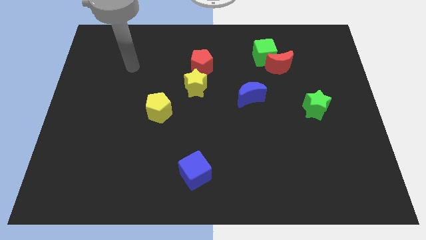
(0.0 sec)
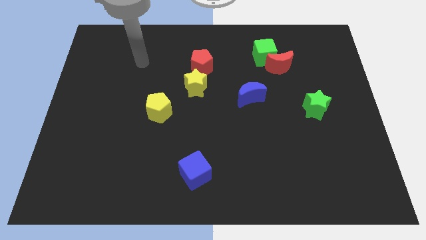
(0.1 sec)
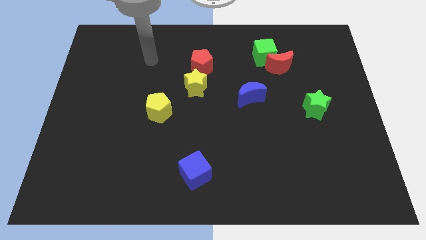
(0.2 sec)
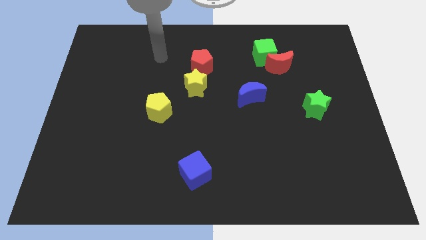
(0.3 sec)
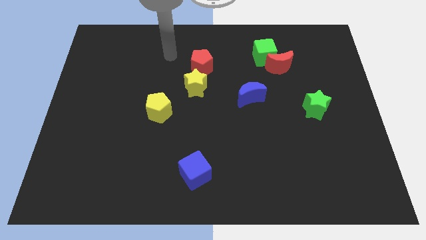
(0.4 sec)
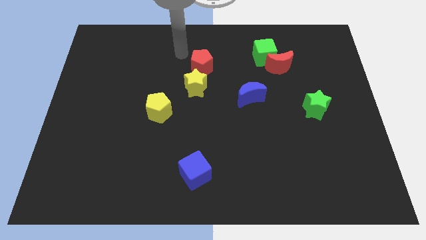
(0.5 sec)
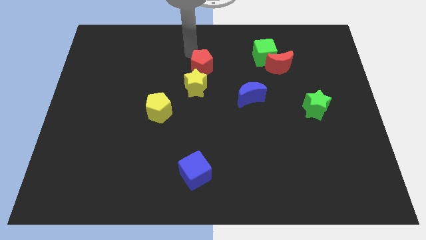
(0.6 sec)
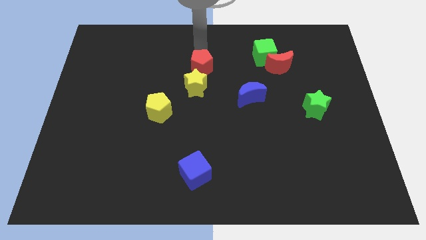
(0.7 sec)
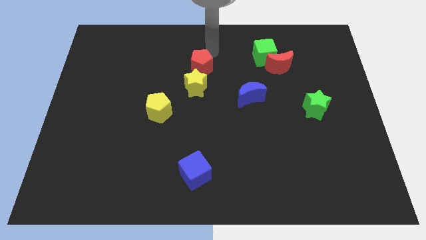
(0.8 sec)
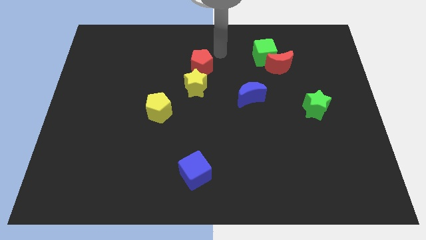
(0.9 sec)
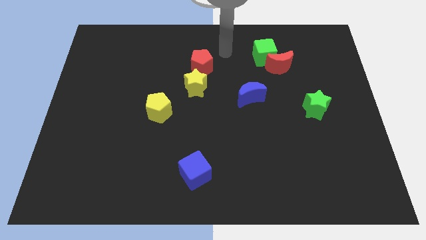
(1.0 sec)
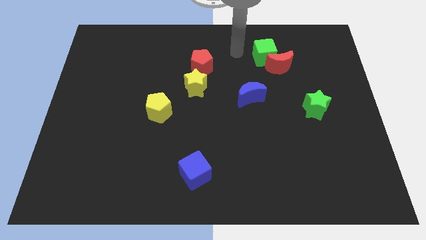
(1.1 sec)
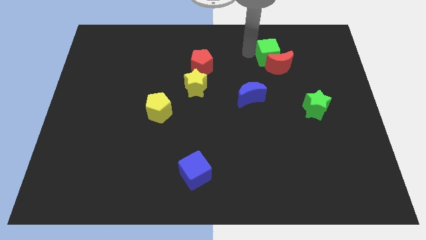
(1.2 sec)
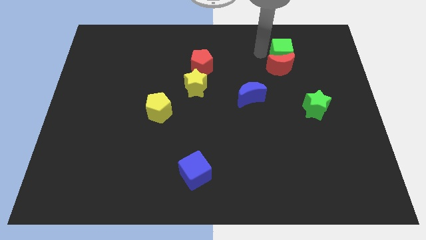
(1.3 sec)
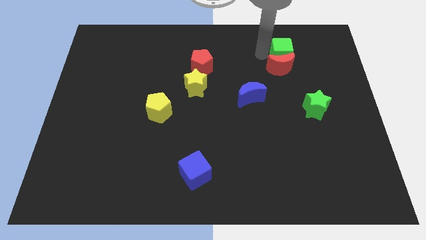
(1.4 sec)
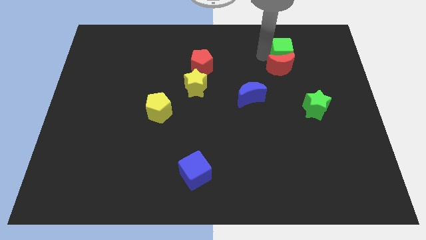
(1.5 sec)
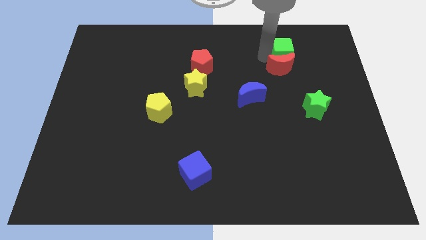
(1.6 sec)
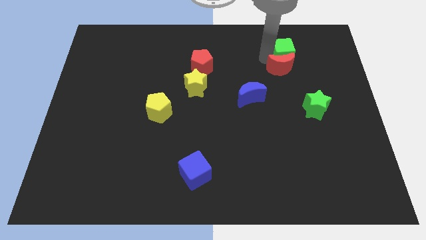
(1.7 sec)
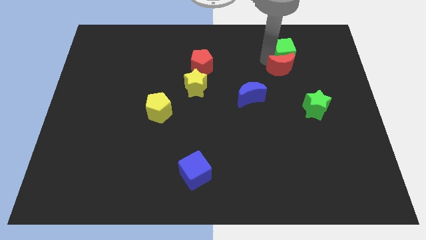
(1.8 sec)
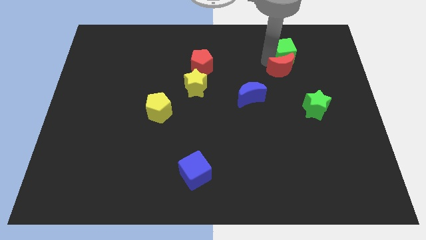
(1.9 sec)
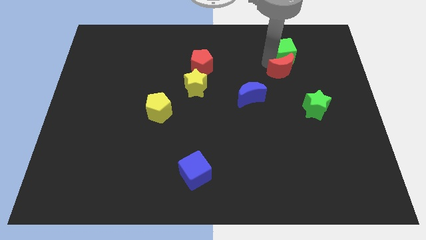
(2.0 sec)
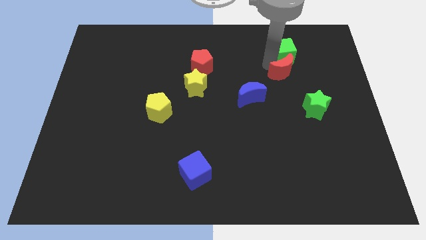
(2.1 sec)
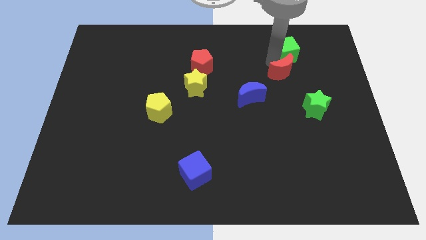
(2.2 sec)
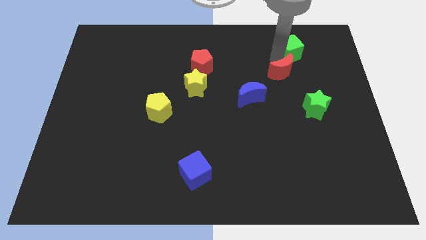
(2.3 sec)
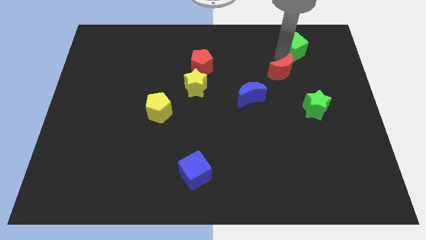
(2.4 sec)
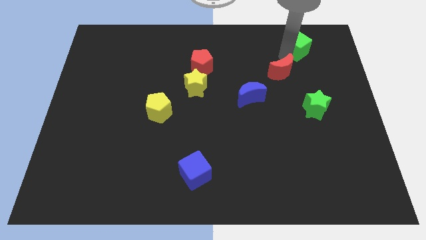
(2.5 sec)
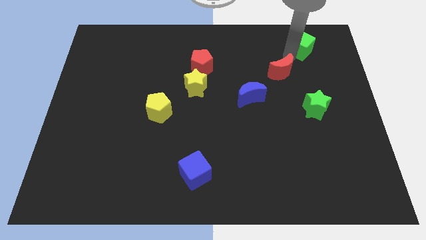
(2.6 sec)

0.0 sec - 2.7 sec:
separate the red moon from the green cube

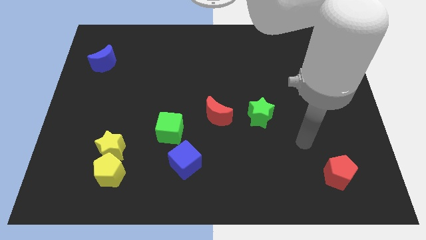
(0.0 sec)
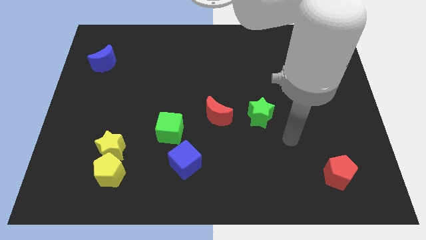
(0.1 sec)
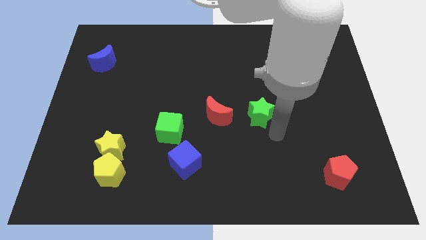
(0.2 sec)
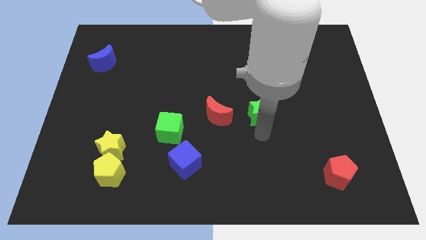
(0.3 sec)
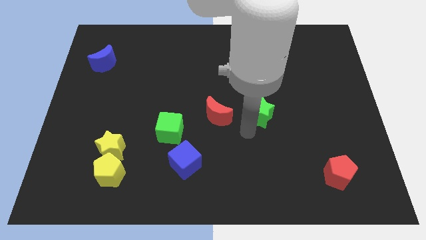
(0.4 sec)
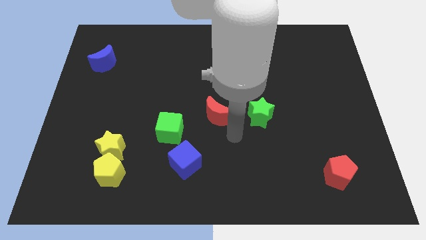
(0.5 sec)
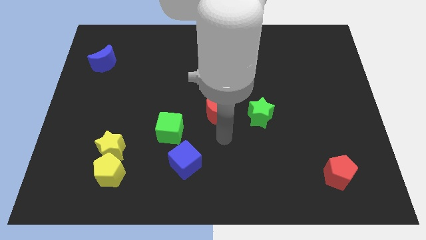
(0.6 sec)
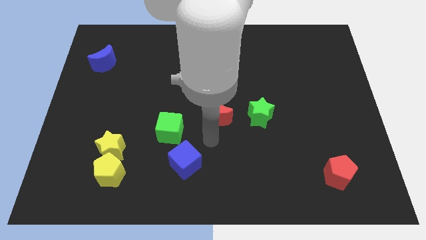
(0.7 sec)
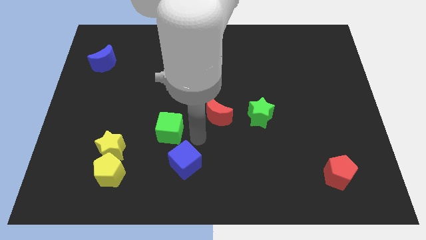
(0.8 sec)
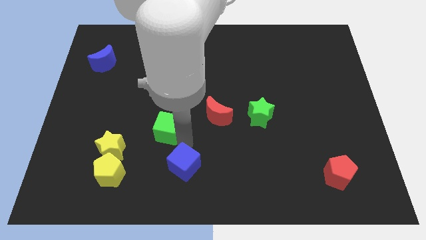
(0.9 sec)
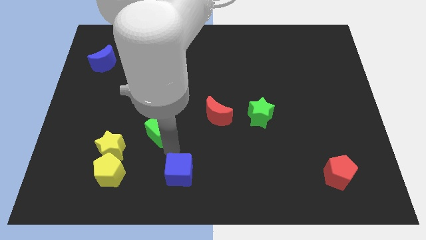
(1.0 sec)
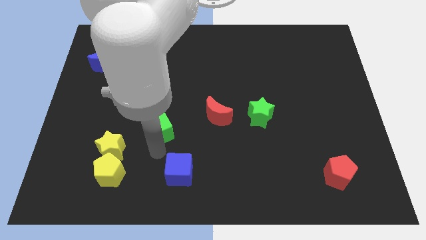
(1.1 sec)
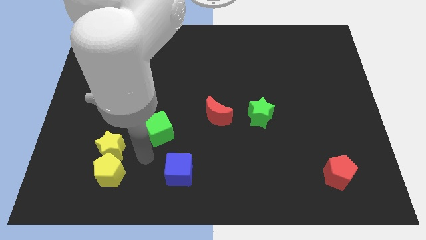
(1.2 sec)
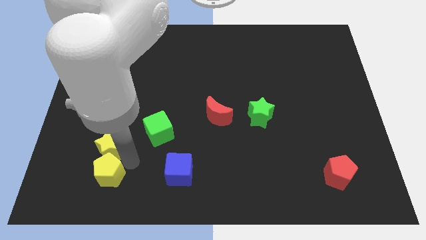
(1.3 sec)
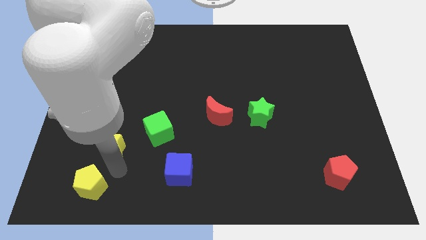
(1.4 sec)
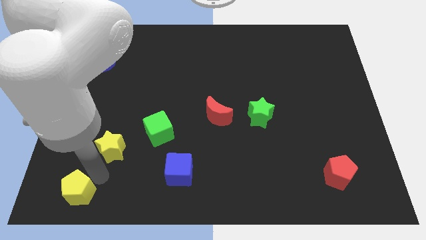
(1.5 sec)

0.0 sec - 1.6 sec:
move the yellow star away from the yellow pentagon

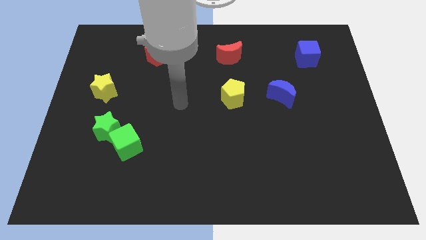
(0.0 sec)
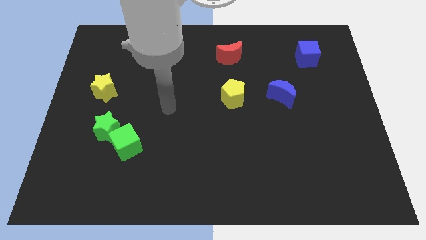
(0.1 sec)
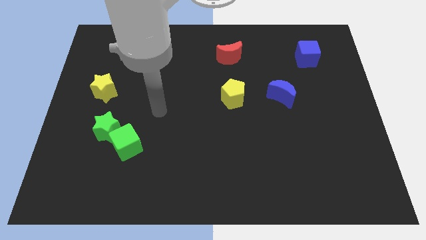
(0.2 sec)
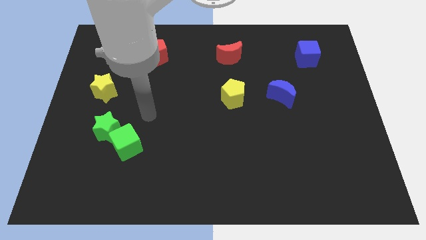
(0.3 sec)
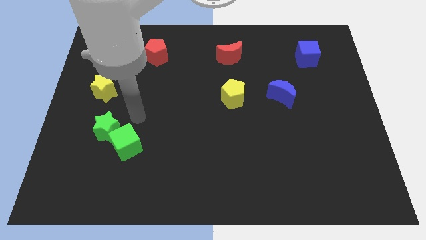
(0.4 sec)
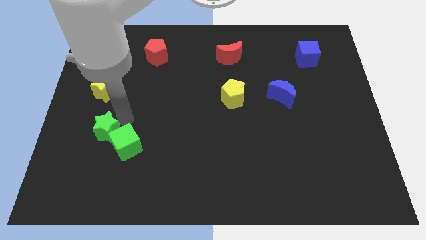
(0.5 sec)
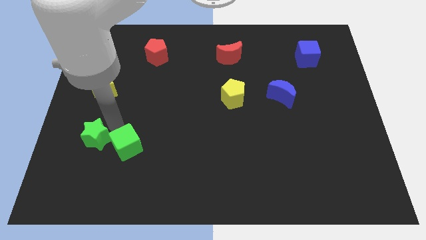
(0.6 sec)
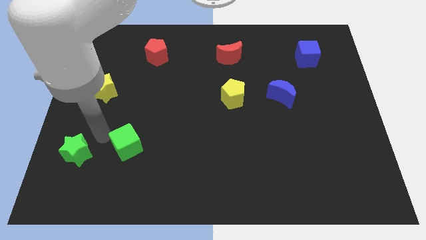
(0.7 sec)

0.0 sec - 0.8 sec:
separate the green cube from the green star

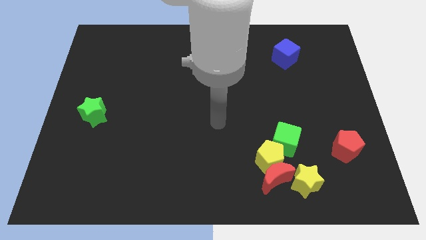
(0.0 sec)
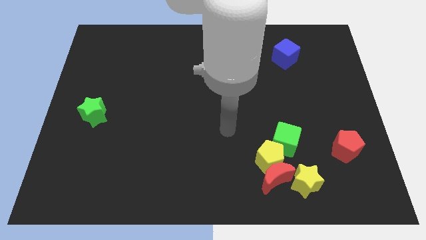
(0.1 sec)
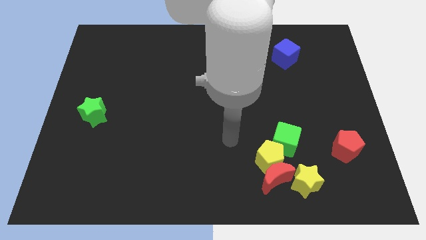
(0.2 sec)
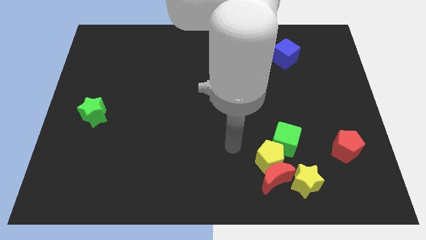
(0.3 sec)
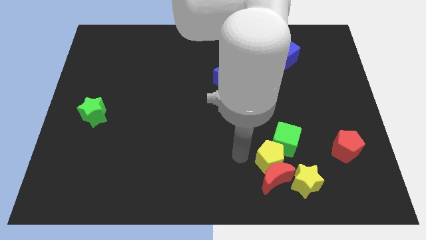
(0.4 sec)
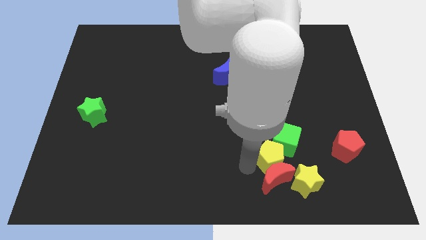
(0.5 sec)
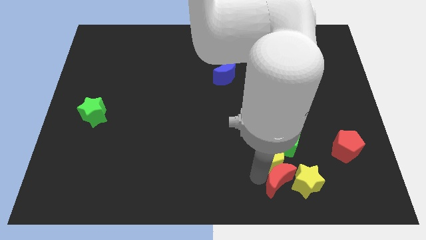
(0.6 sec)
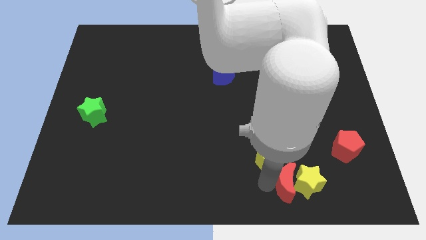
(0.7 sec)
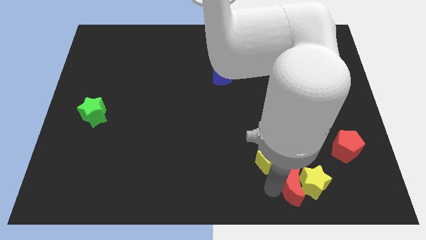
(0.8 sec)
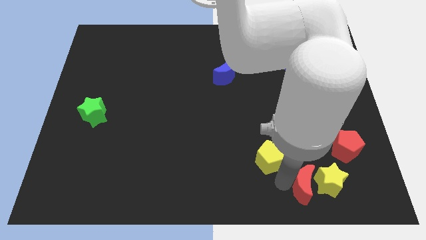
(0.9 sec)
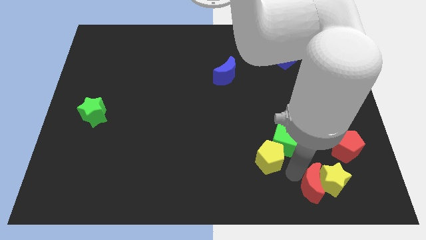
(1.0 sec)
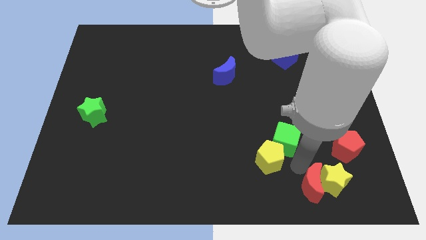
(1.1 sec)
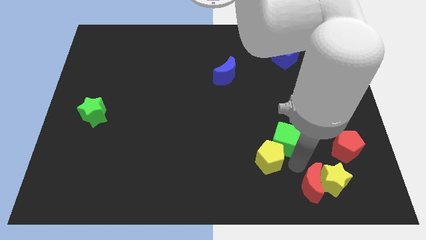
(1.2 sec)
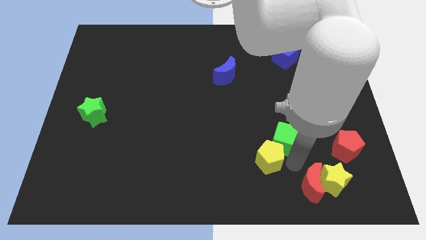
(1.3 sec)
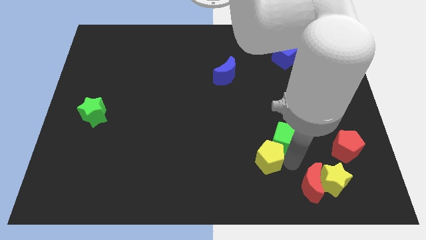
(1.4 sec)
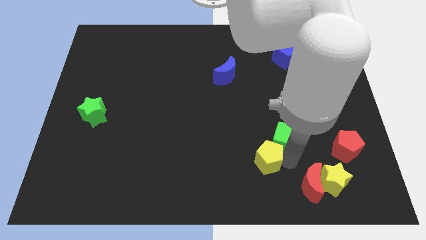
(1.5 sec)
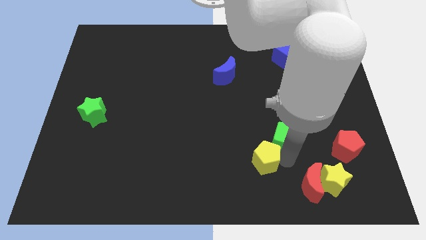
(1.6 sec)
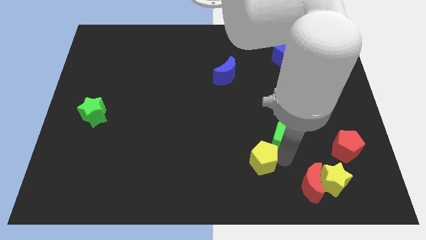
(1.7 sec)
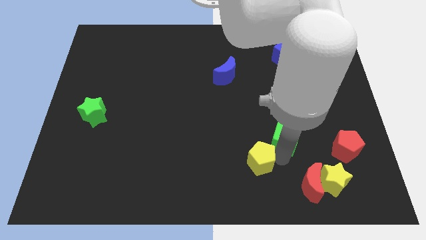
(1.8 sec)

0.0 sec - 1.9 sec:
move the yellow pentagon away from the group of blocks

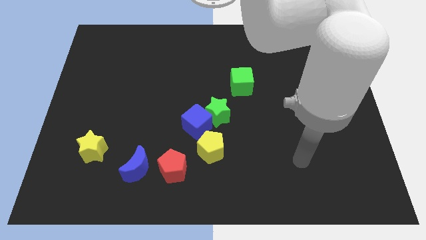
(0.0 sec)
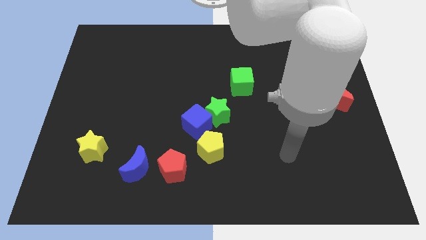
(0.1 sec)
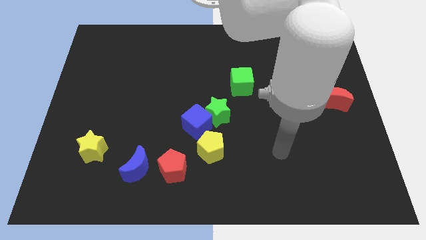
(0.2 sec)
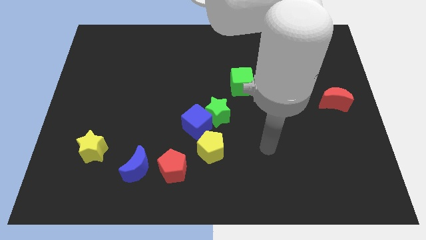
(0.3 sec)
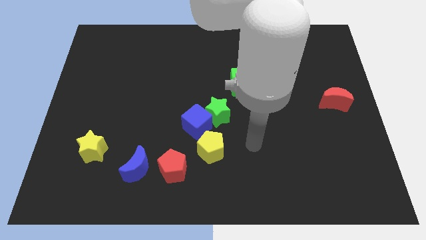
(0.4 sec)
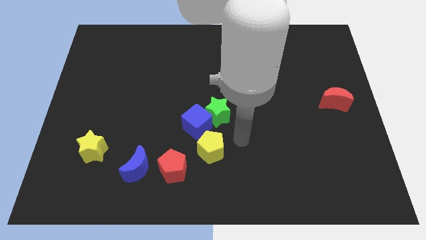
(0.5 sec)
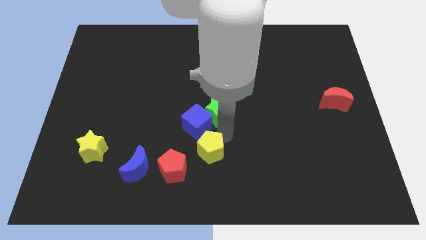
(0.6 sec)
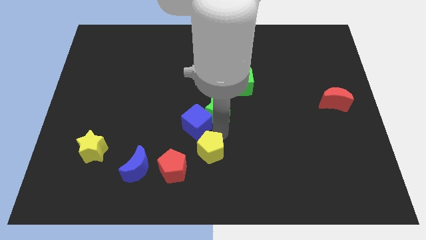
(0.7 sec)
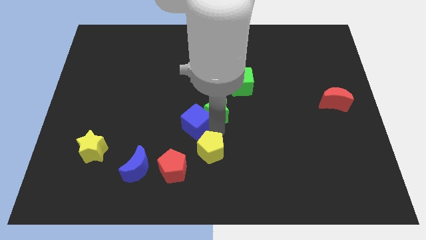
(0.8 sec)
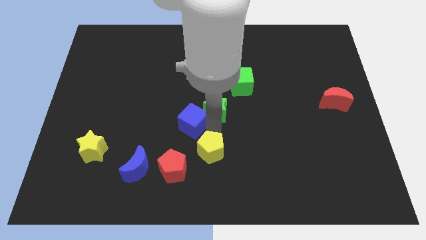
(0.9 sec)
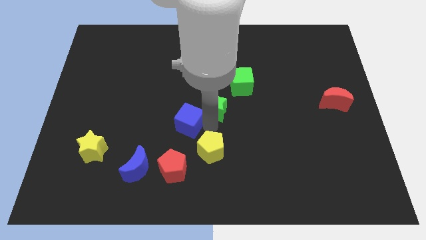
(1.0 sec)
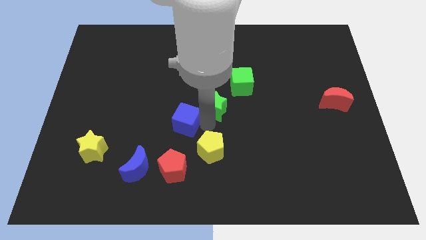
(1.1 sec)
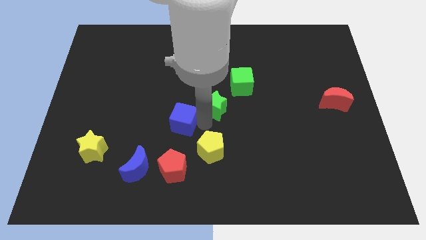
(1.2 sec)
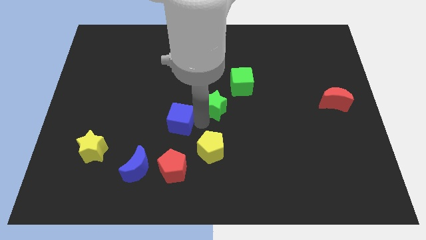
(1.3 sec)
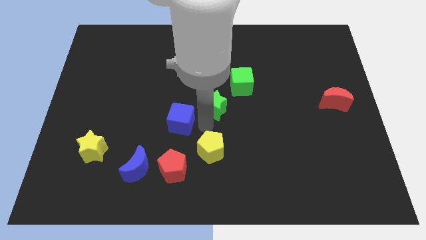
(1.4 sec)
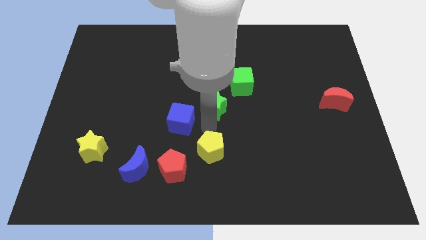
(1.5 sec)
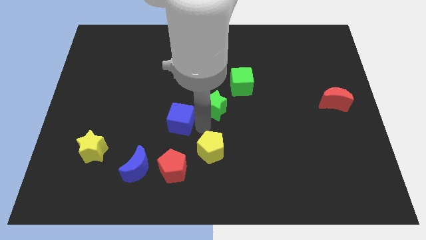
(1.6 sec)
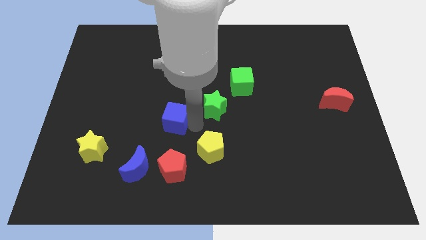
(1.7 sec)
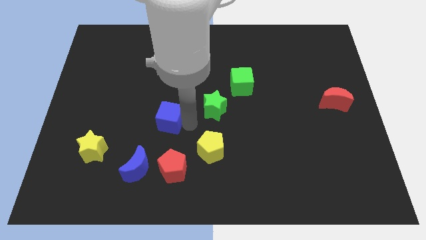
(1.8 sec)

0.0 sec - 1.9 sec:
move the blue cube away from the green star and yellow pentagon

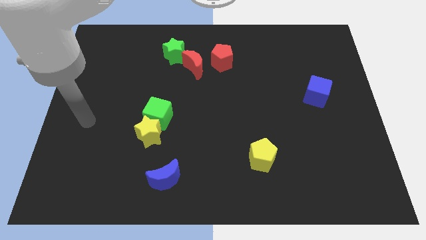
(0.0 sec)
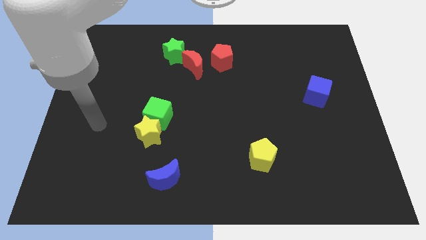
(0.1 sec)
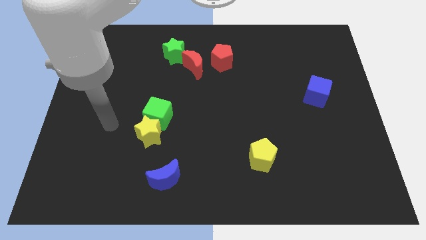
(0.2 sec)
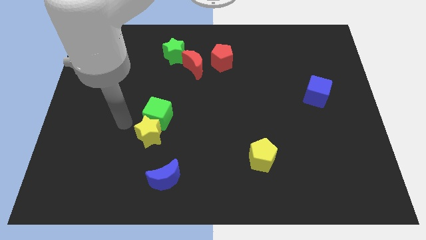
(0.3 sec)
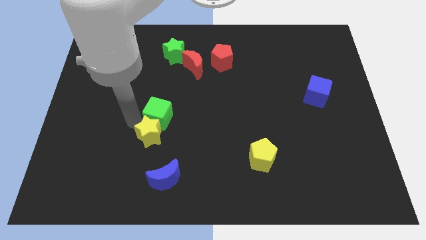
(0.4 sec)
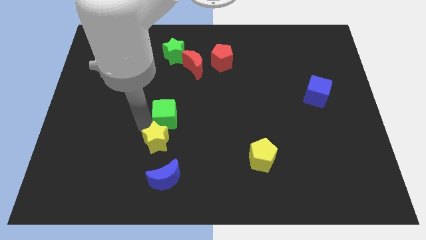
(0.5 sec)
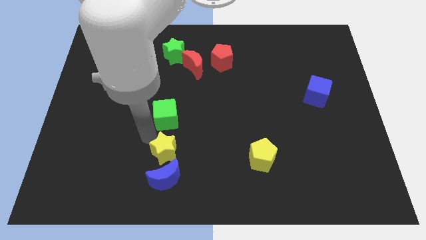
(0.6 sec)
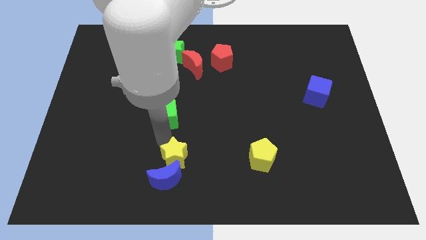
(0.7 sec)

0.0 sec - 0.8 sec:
pull the green cube apart from the yellow star
